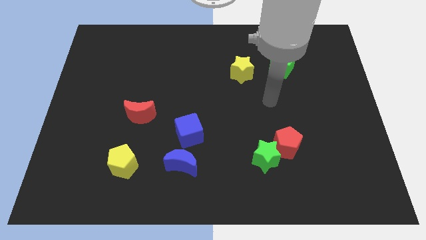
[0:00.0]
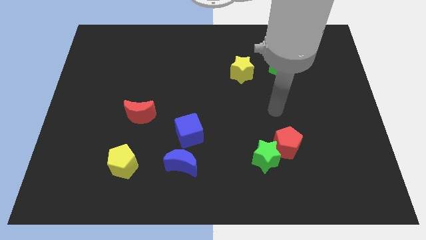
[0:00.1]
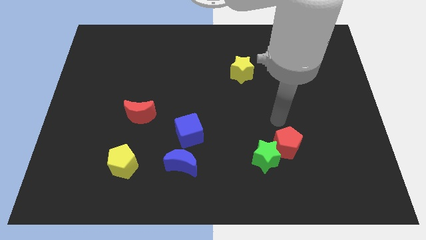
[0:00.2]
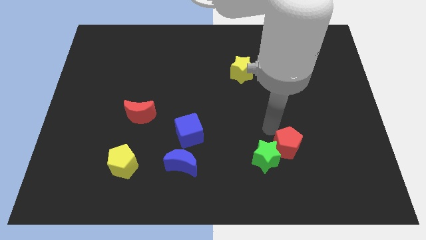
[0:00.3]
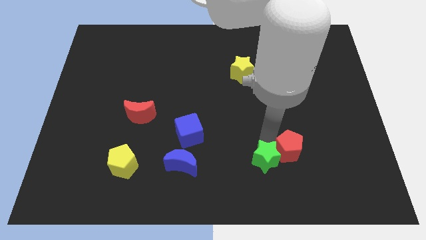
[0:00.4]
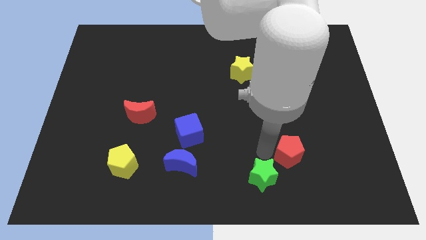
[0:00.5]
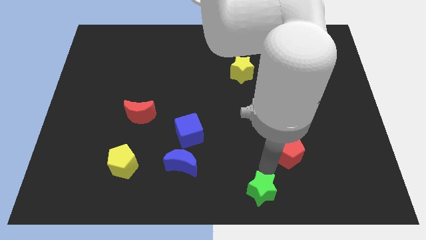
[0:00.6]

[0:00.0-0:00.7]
pull the red pentagon apart from the green star

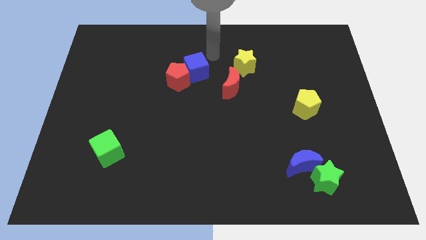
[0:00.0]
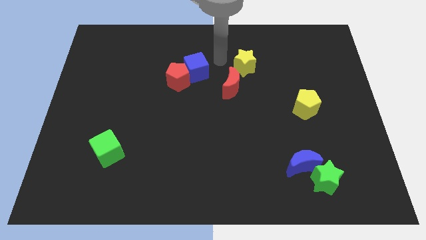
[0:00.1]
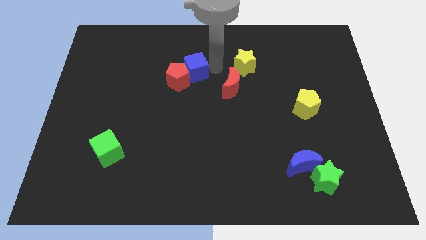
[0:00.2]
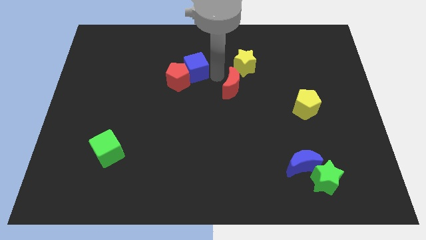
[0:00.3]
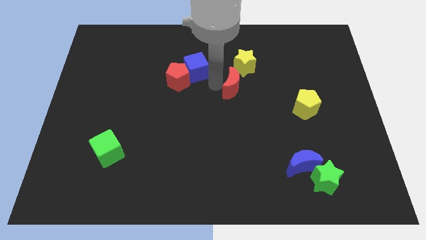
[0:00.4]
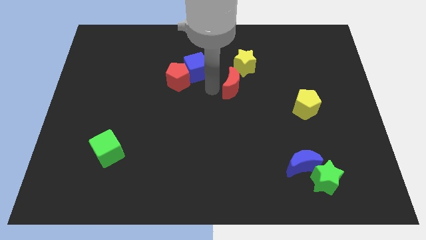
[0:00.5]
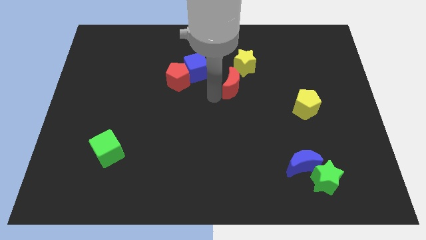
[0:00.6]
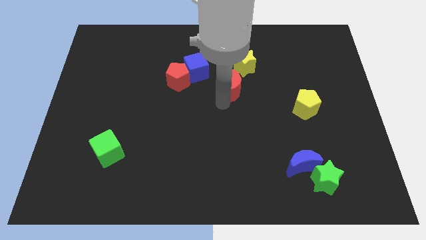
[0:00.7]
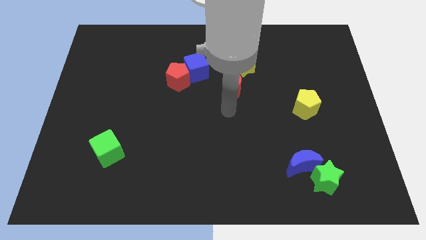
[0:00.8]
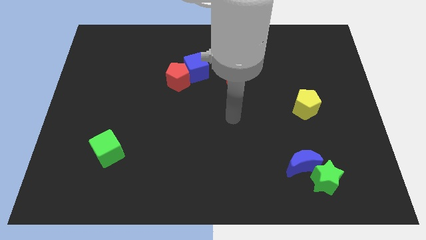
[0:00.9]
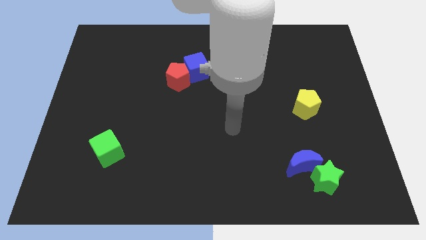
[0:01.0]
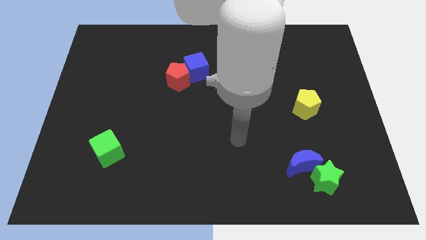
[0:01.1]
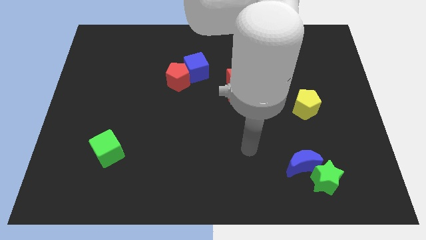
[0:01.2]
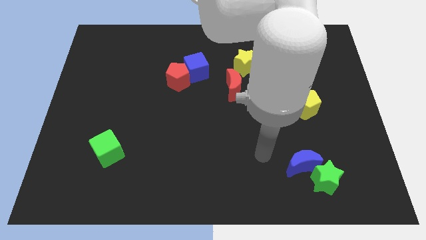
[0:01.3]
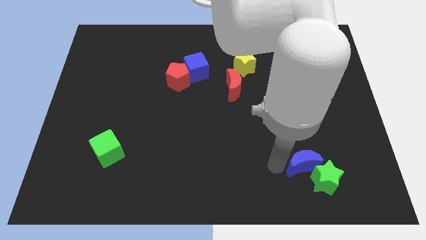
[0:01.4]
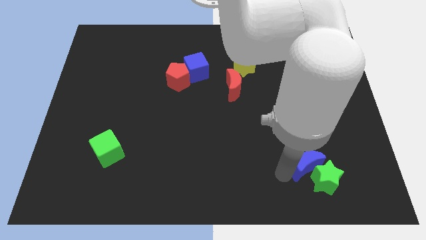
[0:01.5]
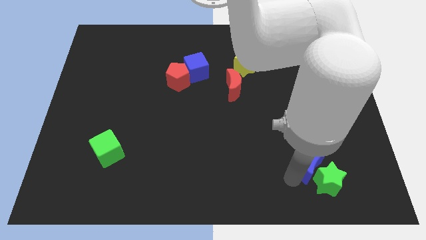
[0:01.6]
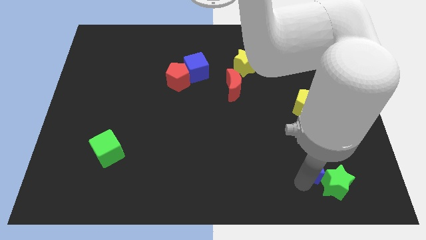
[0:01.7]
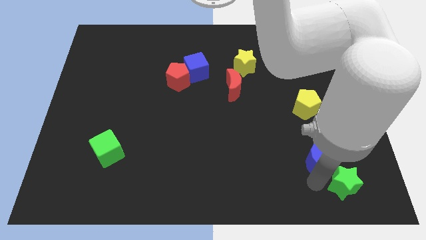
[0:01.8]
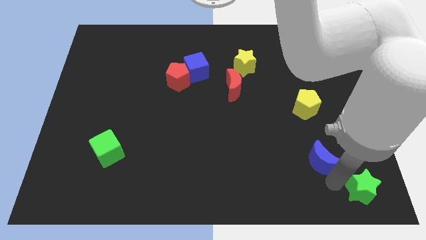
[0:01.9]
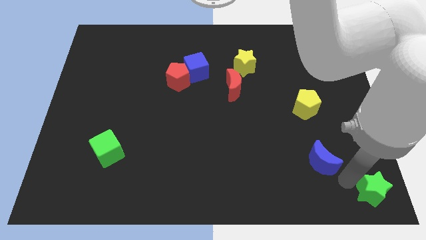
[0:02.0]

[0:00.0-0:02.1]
separate the blue moon from the green star

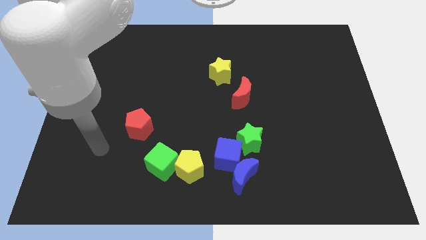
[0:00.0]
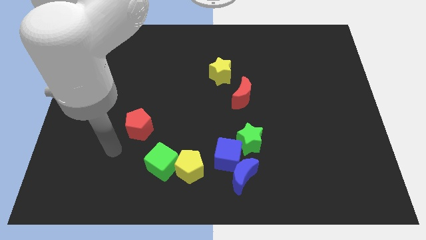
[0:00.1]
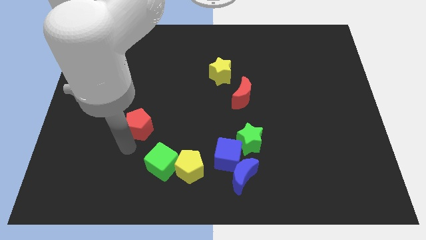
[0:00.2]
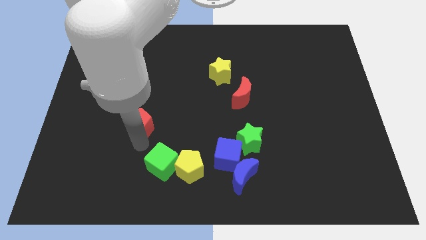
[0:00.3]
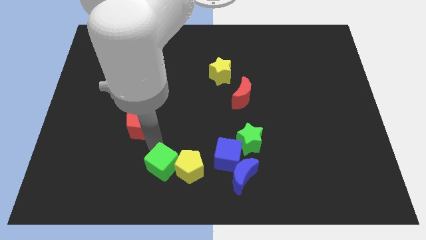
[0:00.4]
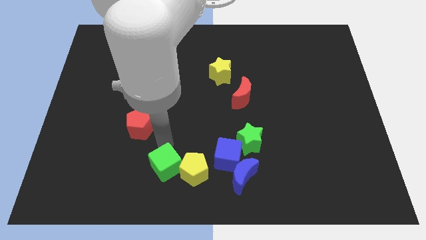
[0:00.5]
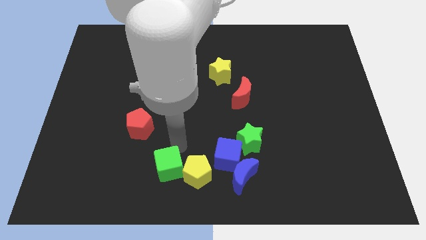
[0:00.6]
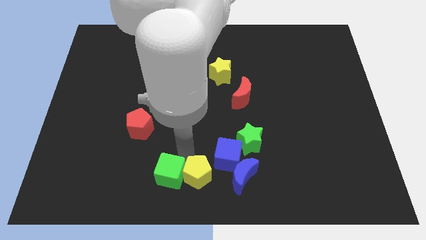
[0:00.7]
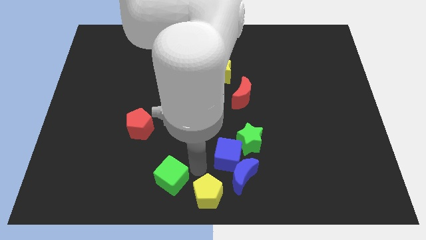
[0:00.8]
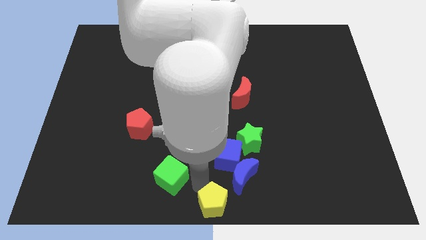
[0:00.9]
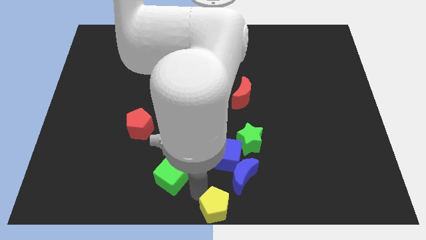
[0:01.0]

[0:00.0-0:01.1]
separate the green cube from the yellow pentagon

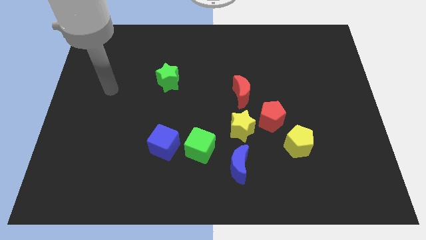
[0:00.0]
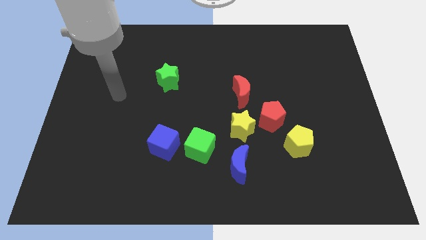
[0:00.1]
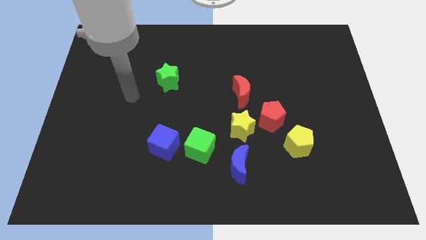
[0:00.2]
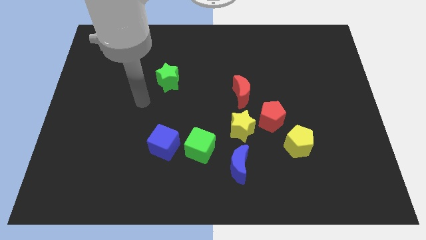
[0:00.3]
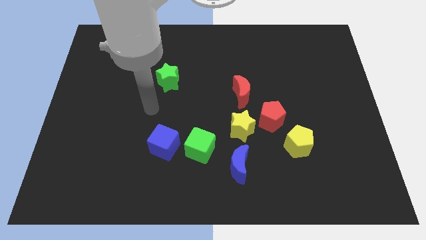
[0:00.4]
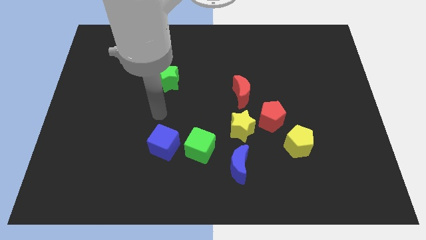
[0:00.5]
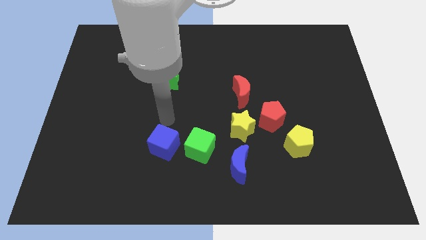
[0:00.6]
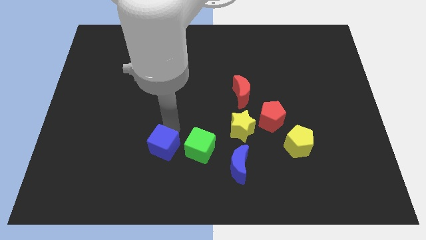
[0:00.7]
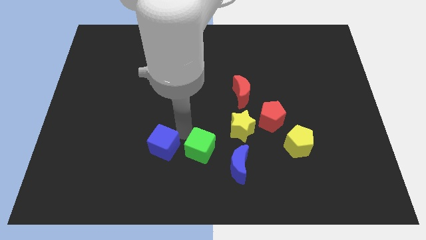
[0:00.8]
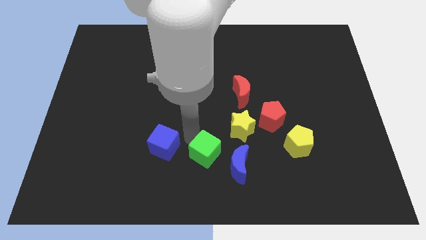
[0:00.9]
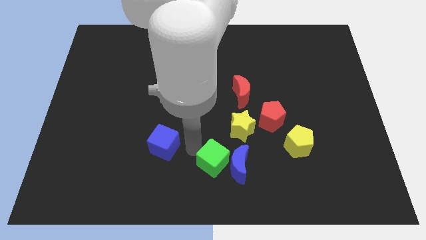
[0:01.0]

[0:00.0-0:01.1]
separate the blue cube from the green cube

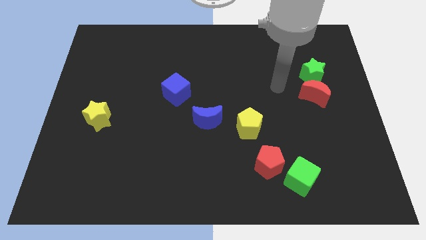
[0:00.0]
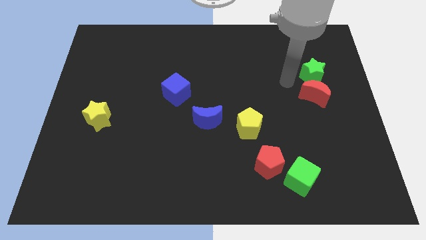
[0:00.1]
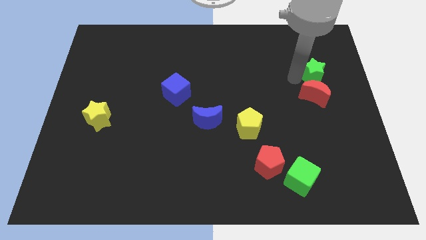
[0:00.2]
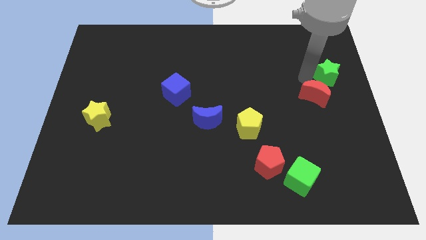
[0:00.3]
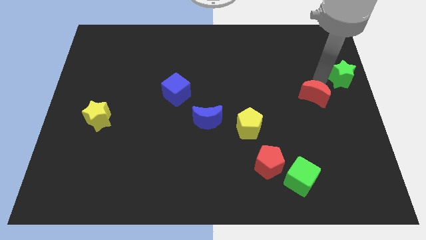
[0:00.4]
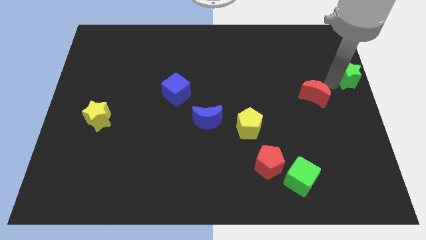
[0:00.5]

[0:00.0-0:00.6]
move the red moon away from the green star

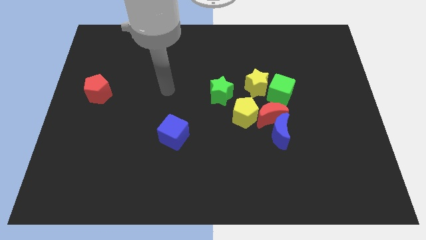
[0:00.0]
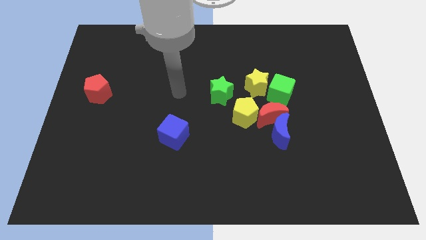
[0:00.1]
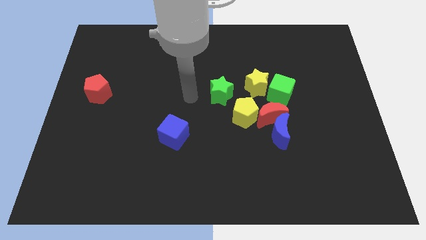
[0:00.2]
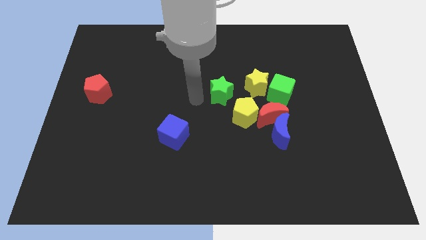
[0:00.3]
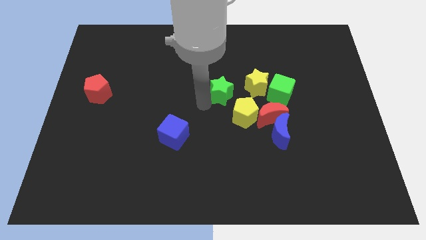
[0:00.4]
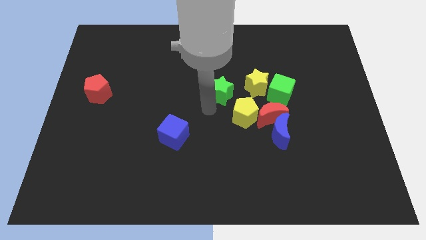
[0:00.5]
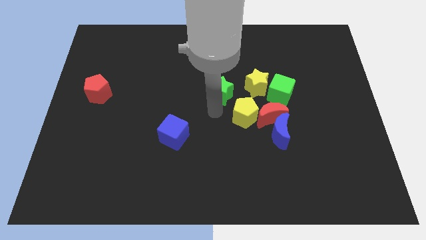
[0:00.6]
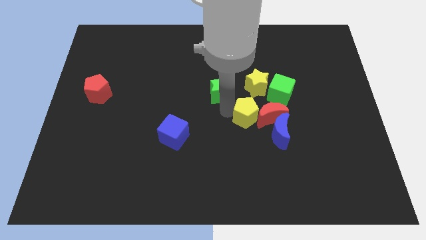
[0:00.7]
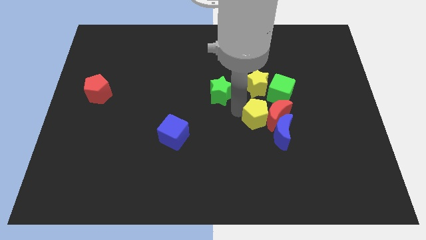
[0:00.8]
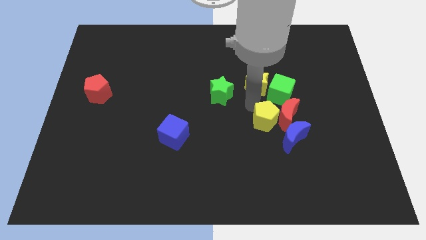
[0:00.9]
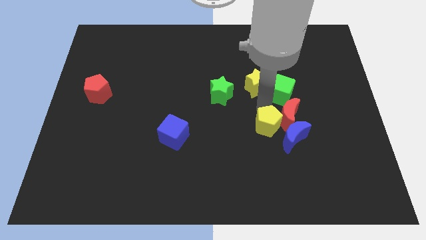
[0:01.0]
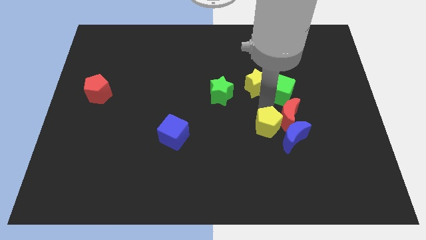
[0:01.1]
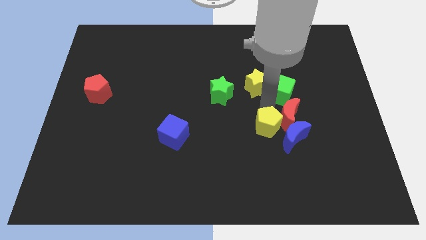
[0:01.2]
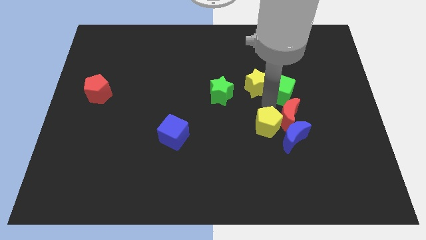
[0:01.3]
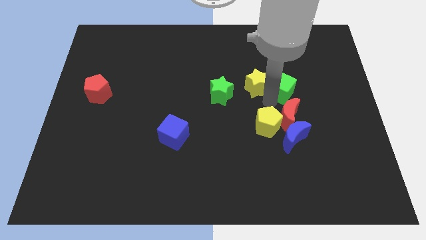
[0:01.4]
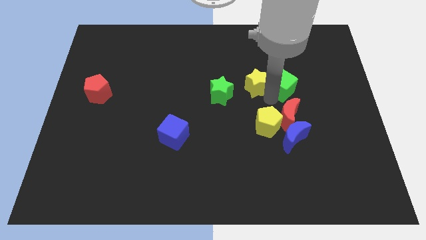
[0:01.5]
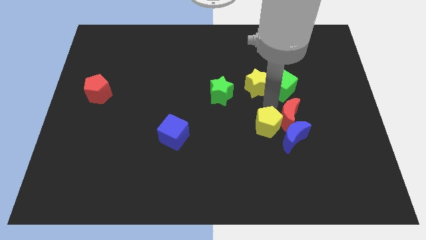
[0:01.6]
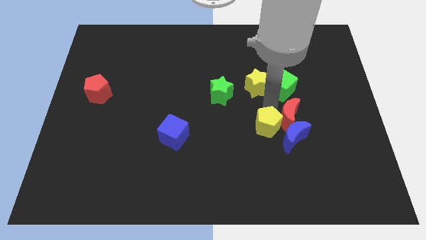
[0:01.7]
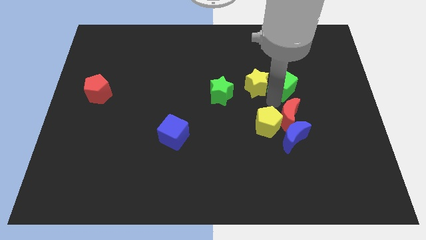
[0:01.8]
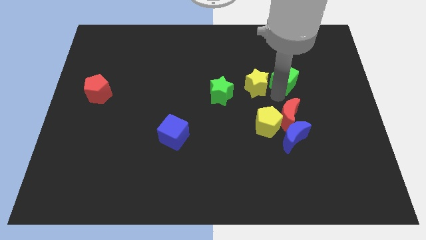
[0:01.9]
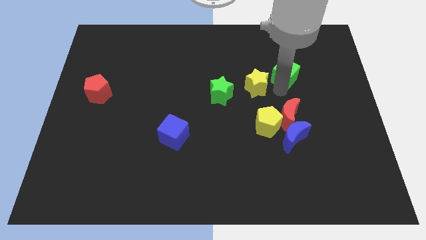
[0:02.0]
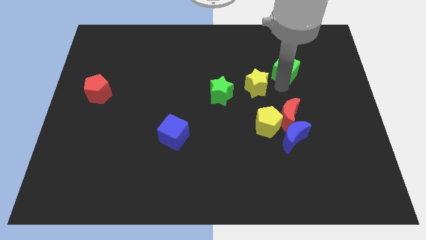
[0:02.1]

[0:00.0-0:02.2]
separate the green cube from the yellow star and red moon

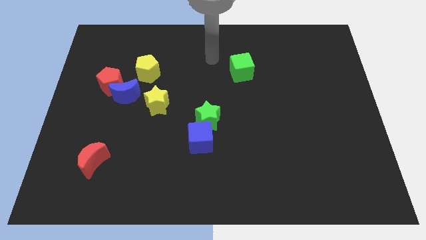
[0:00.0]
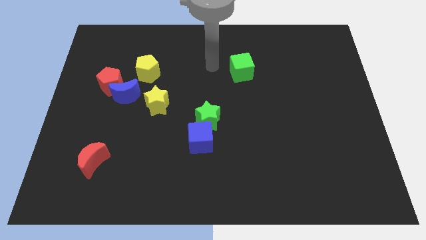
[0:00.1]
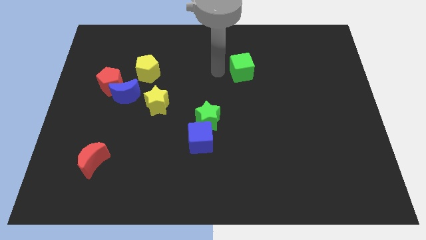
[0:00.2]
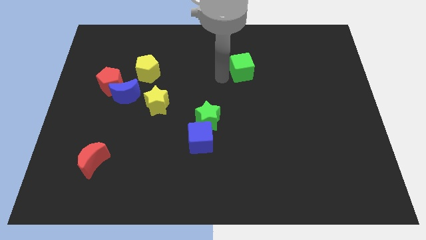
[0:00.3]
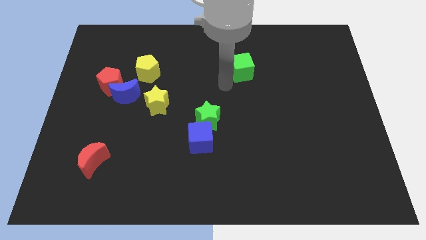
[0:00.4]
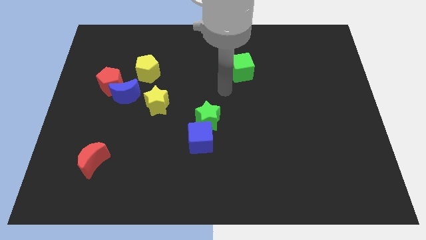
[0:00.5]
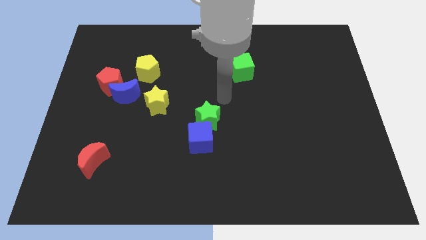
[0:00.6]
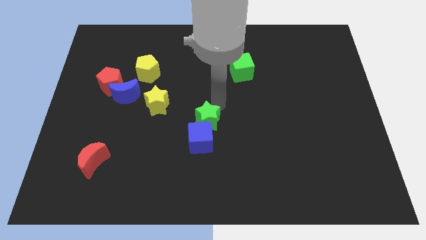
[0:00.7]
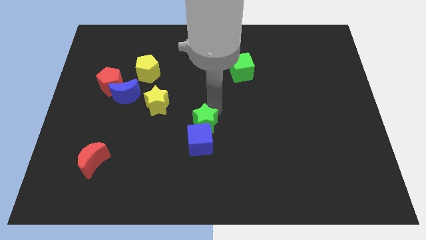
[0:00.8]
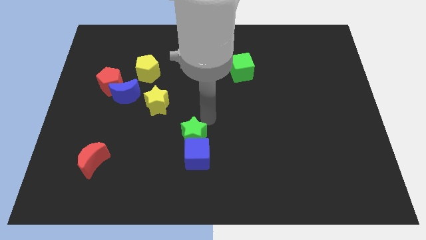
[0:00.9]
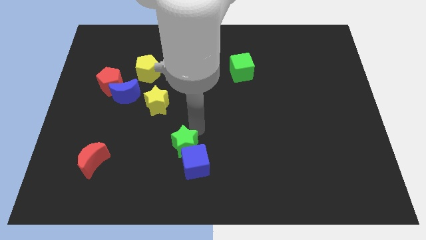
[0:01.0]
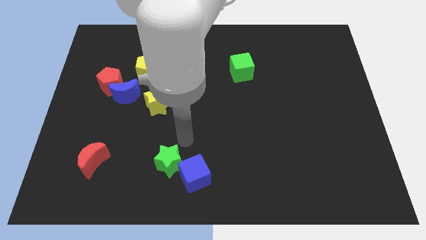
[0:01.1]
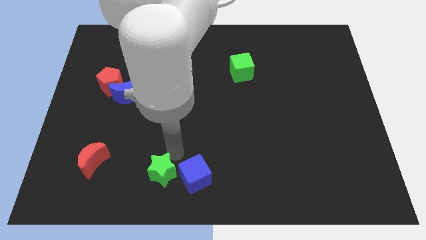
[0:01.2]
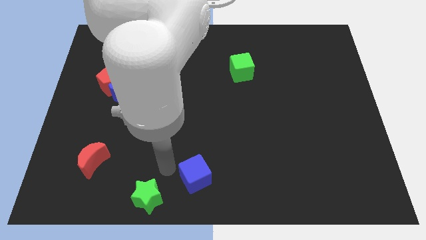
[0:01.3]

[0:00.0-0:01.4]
pull the blue cube apart from the green star
